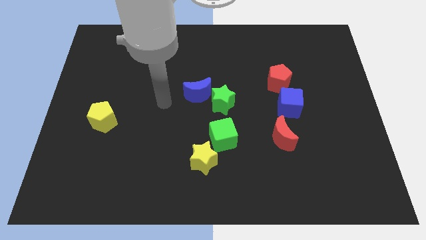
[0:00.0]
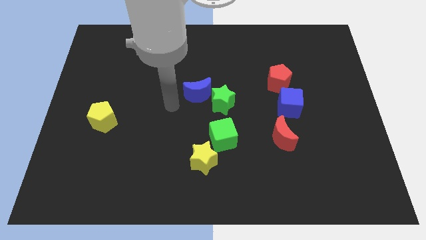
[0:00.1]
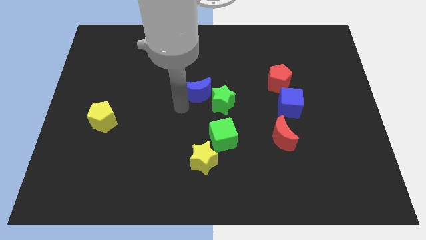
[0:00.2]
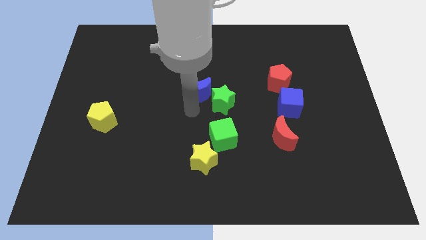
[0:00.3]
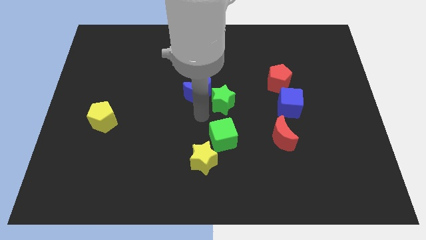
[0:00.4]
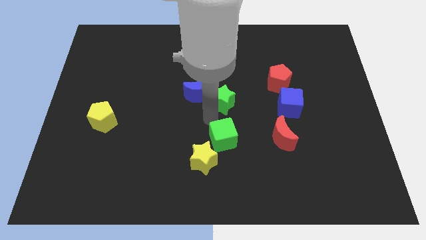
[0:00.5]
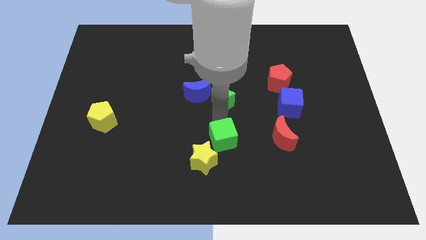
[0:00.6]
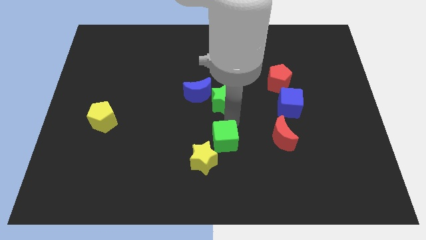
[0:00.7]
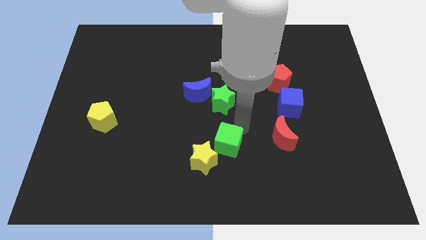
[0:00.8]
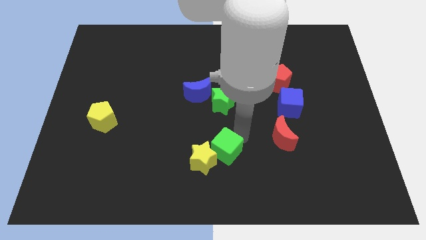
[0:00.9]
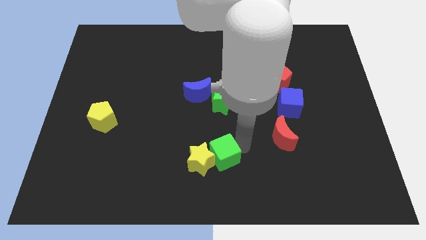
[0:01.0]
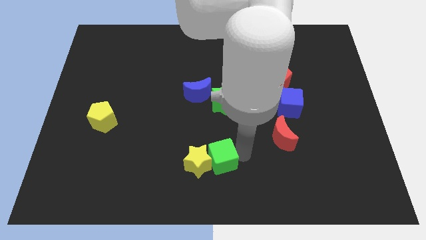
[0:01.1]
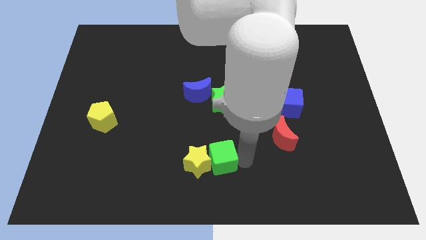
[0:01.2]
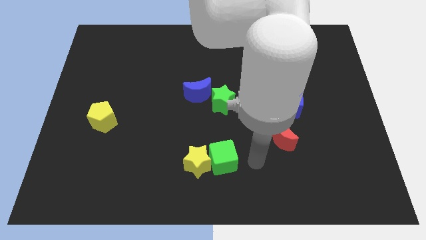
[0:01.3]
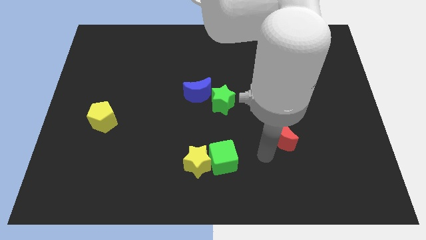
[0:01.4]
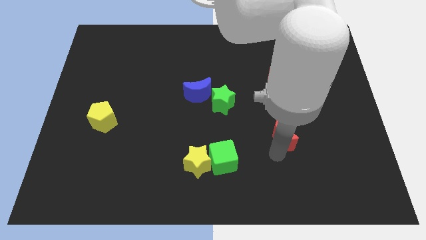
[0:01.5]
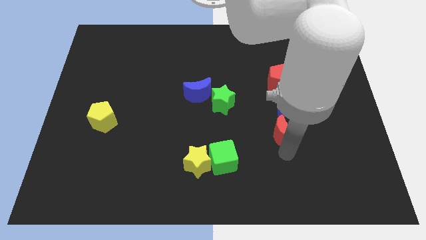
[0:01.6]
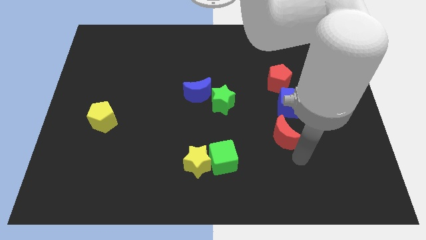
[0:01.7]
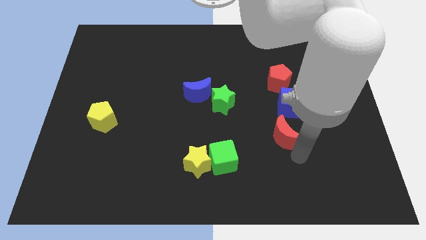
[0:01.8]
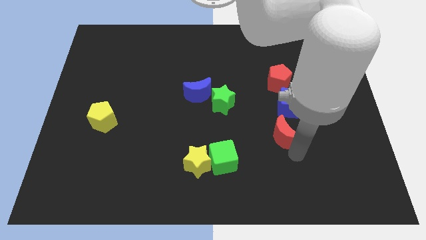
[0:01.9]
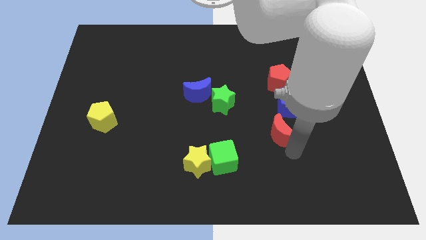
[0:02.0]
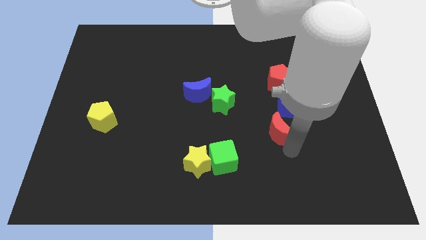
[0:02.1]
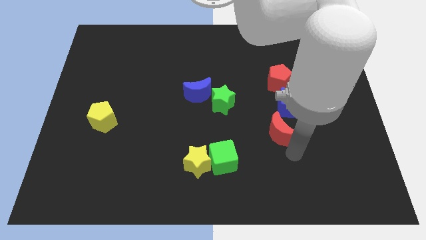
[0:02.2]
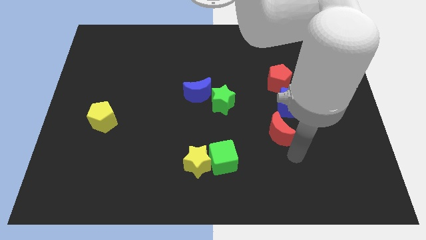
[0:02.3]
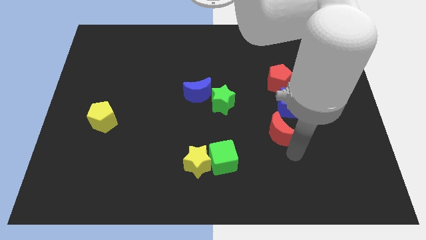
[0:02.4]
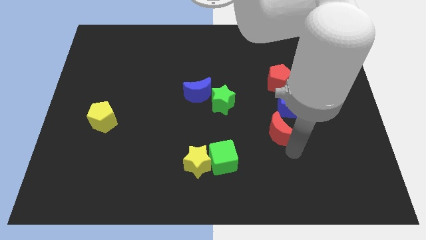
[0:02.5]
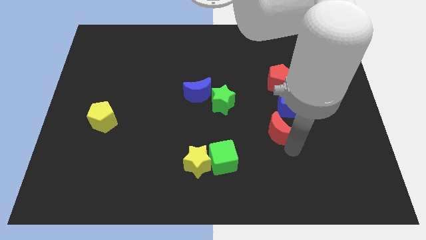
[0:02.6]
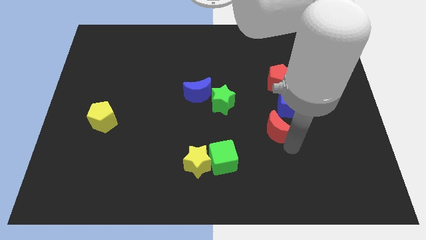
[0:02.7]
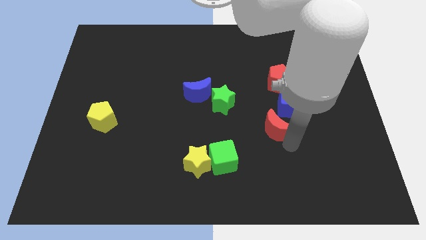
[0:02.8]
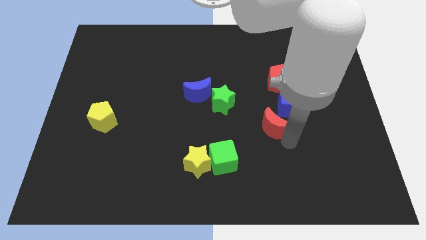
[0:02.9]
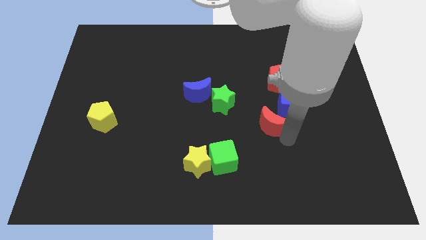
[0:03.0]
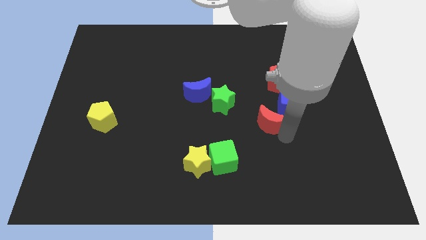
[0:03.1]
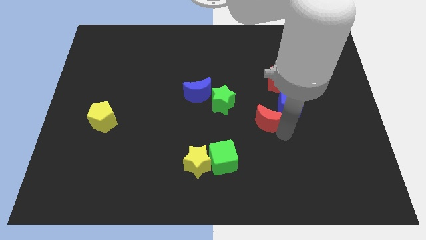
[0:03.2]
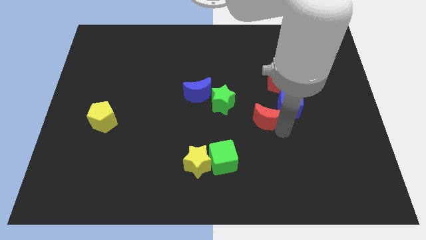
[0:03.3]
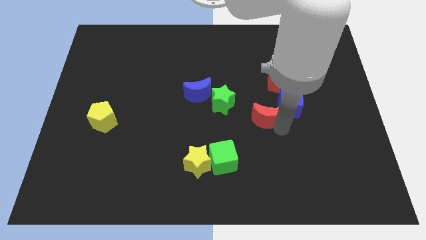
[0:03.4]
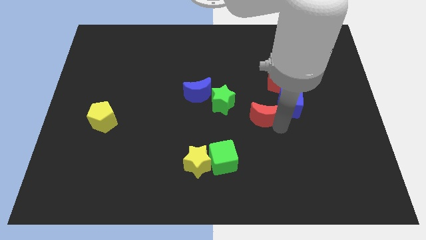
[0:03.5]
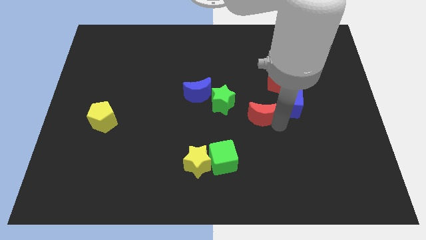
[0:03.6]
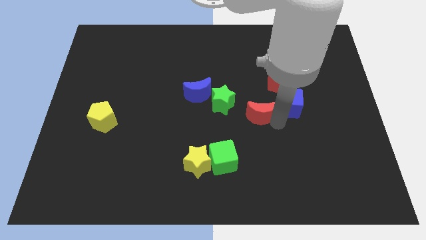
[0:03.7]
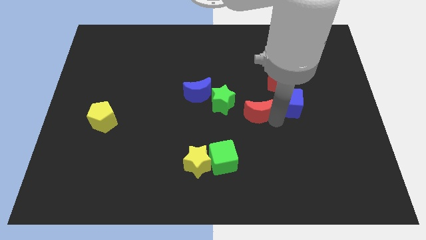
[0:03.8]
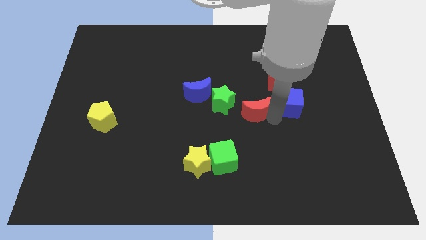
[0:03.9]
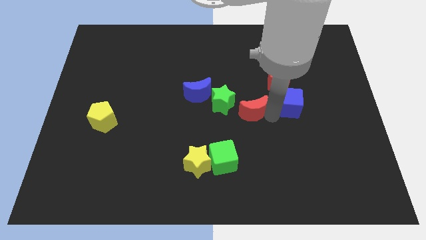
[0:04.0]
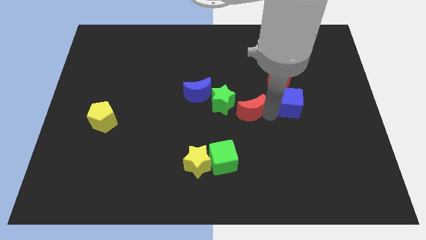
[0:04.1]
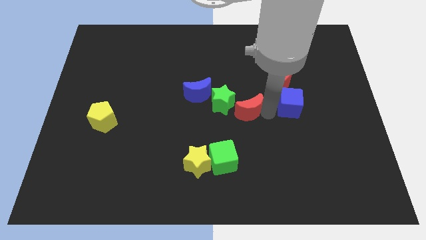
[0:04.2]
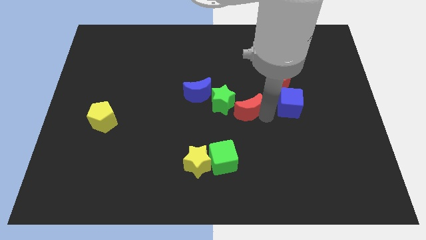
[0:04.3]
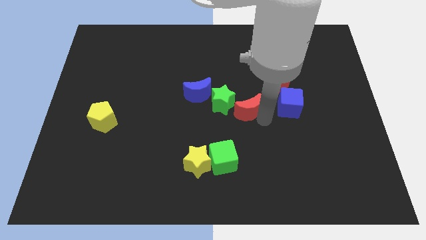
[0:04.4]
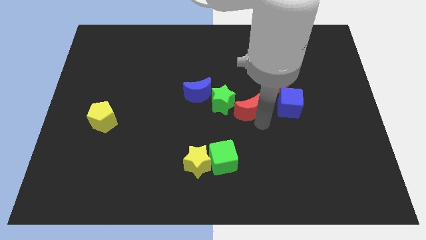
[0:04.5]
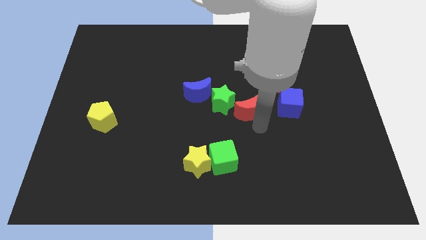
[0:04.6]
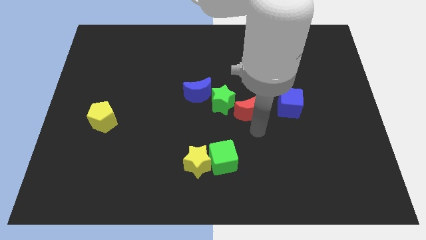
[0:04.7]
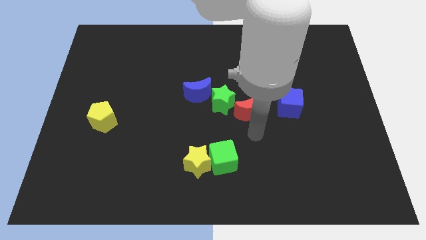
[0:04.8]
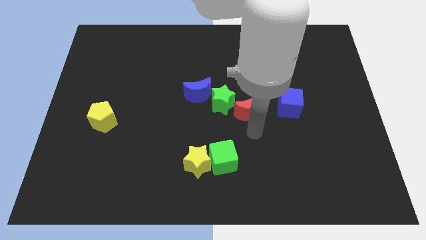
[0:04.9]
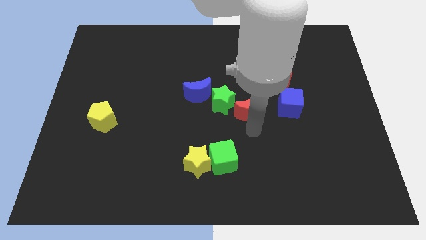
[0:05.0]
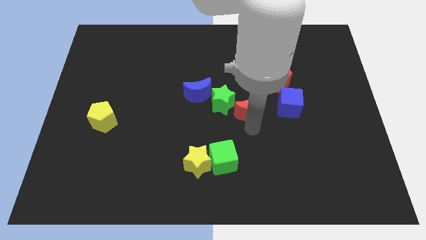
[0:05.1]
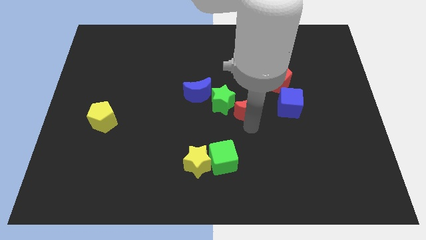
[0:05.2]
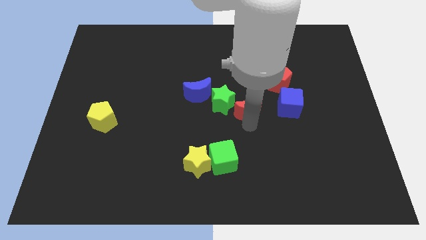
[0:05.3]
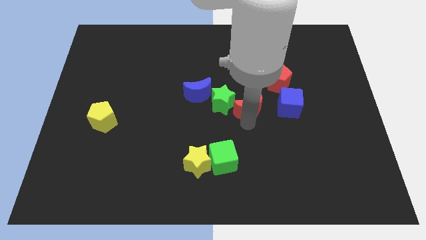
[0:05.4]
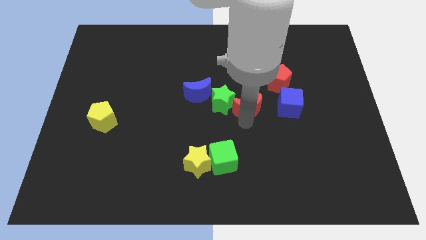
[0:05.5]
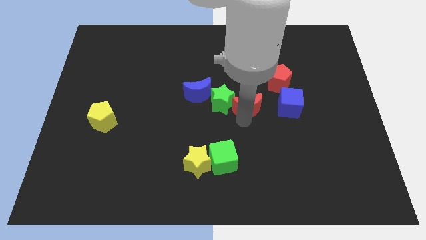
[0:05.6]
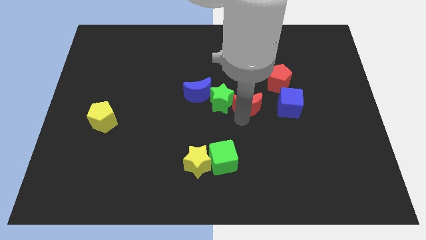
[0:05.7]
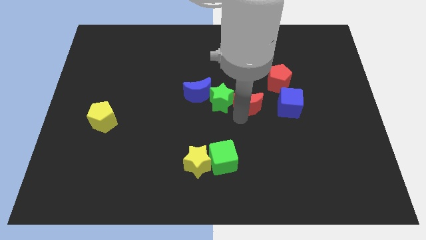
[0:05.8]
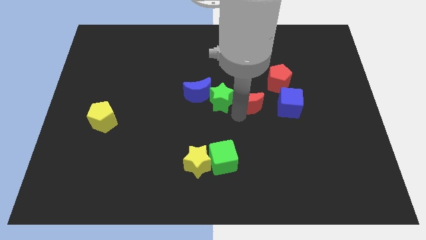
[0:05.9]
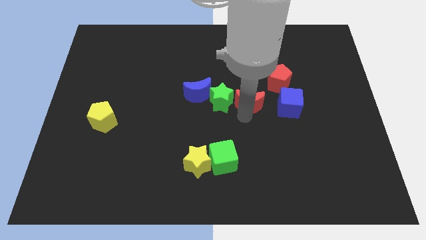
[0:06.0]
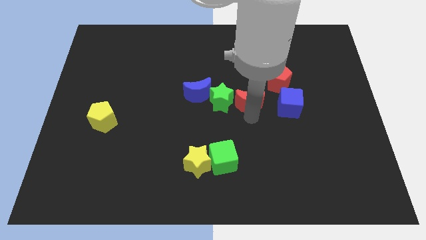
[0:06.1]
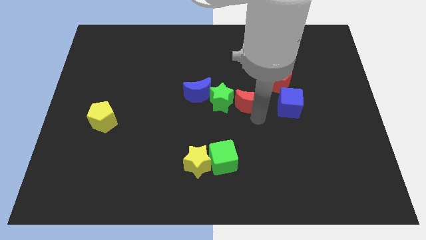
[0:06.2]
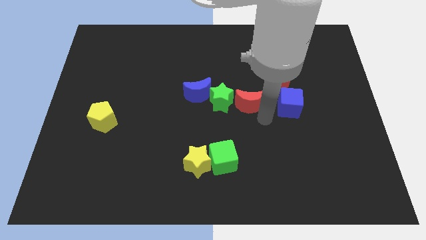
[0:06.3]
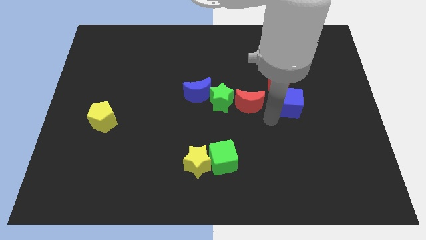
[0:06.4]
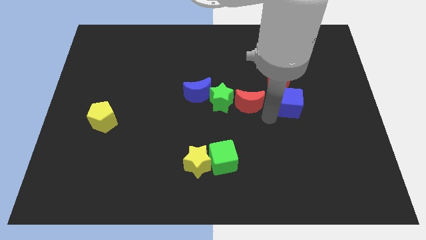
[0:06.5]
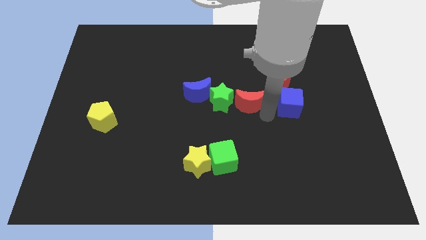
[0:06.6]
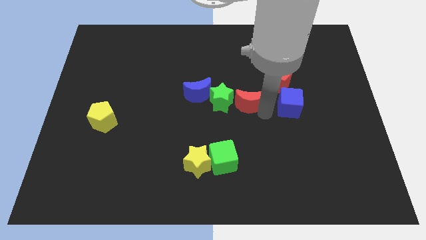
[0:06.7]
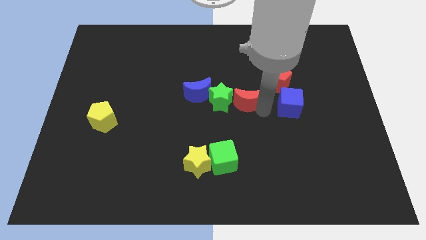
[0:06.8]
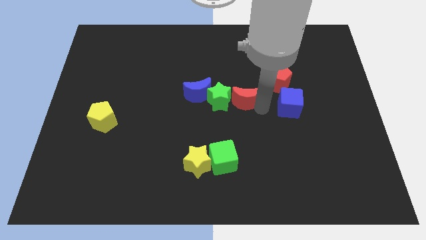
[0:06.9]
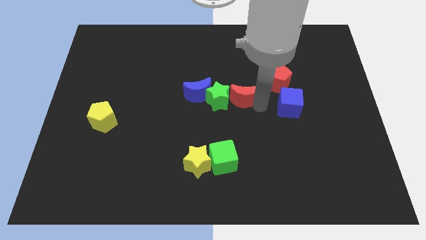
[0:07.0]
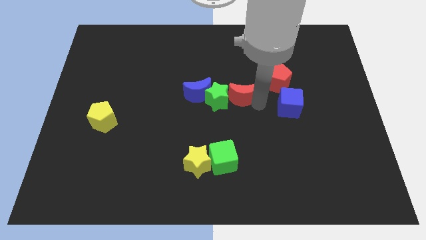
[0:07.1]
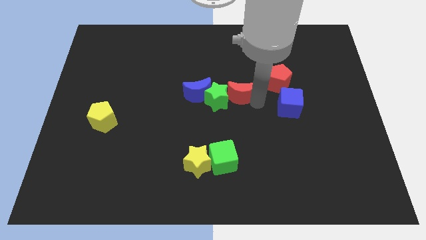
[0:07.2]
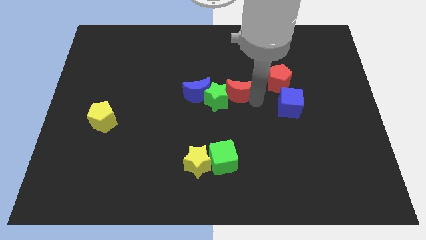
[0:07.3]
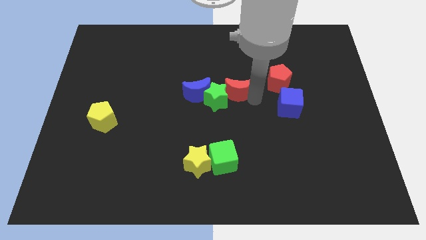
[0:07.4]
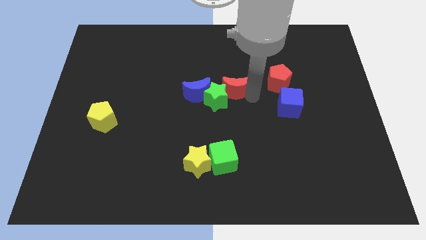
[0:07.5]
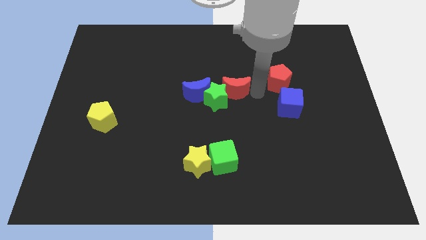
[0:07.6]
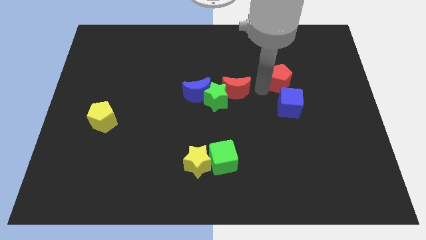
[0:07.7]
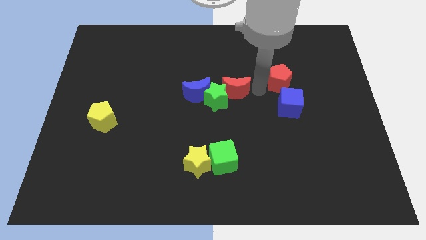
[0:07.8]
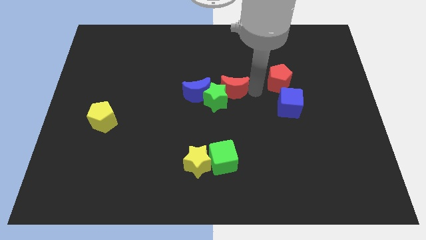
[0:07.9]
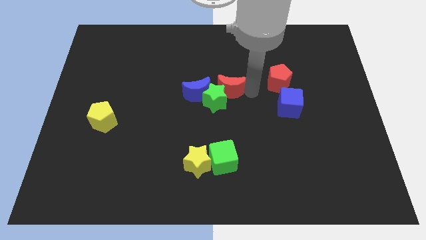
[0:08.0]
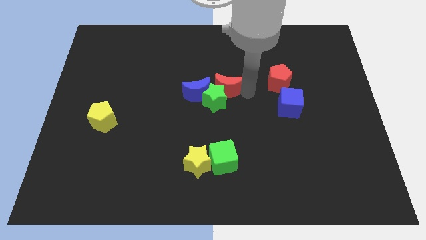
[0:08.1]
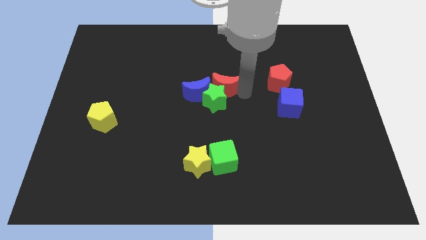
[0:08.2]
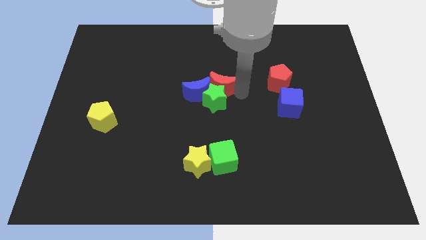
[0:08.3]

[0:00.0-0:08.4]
push the red moon next to the blue moon
